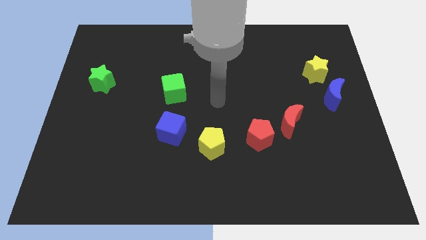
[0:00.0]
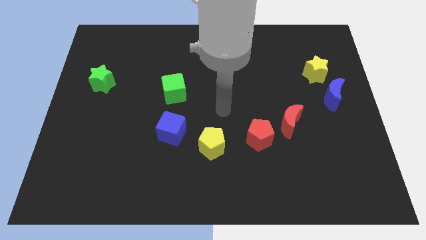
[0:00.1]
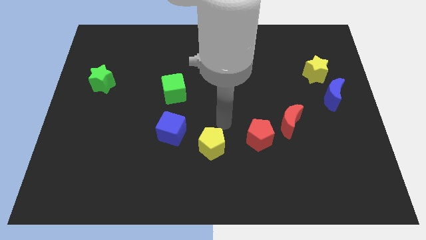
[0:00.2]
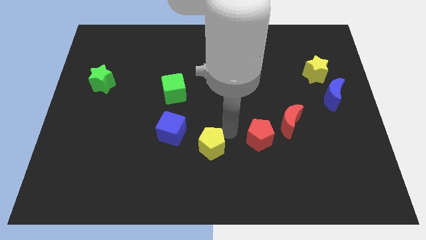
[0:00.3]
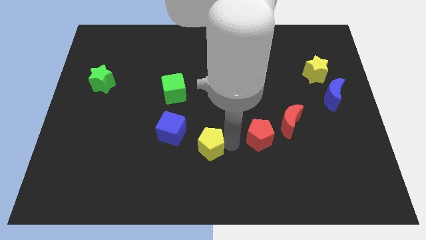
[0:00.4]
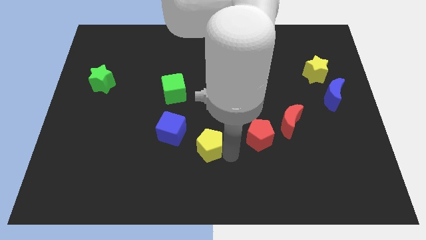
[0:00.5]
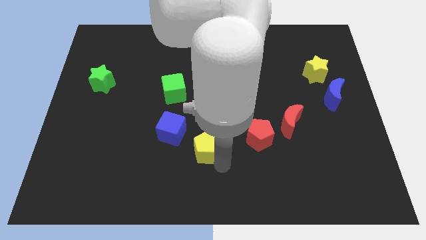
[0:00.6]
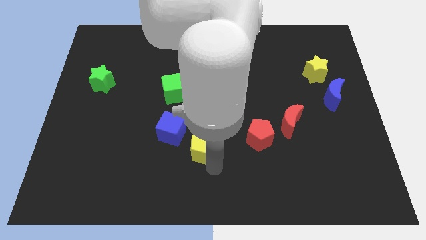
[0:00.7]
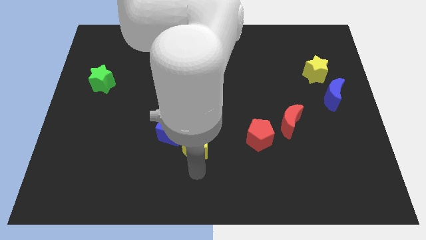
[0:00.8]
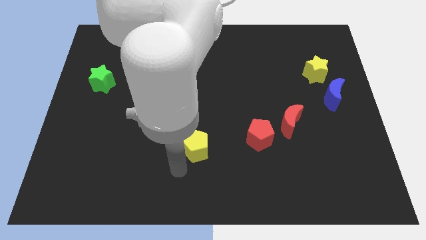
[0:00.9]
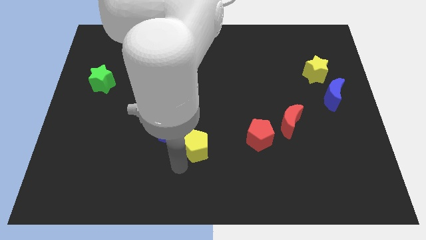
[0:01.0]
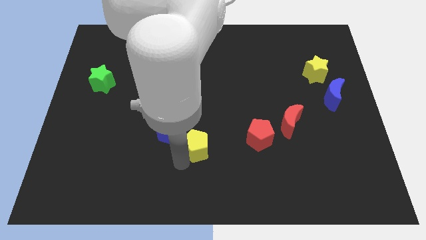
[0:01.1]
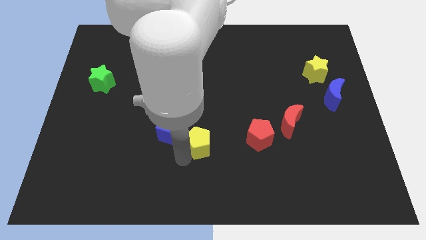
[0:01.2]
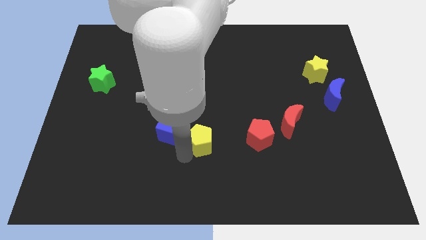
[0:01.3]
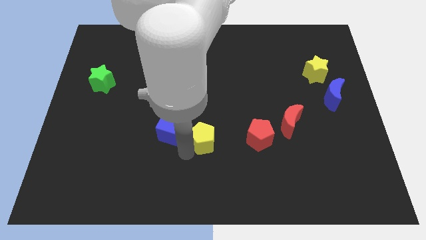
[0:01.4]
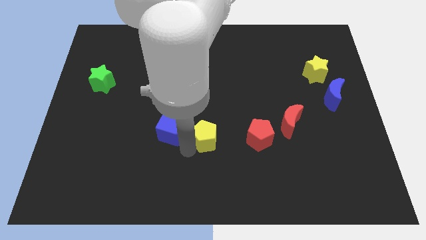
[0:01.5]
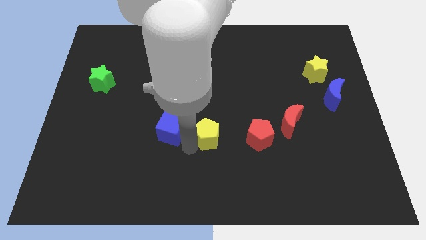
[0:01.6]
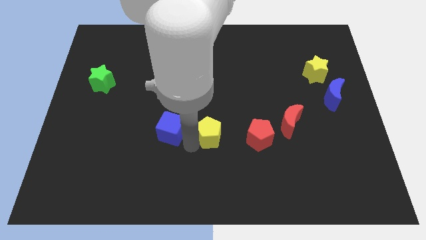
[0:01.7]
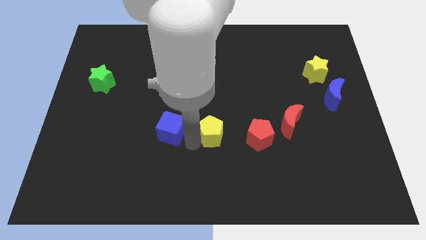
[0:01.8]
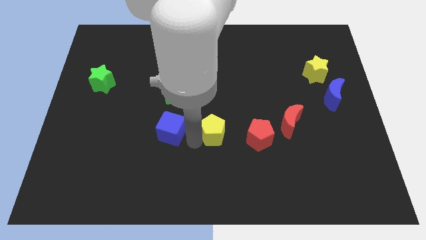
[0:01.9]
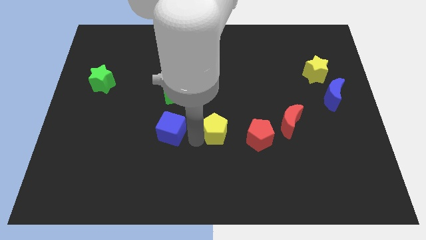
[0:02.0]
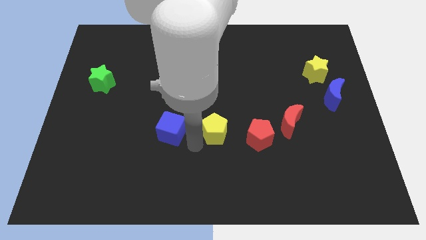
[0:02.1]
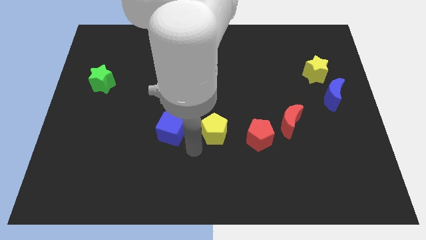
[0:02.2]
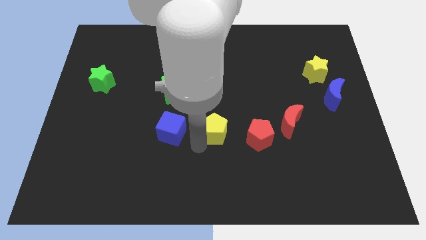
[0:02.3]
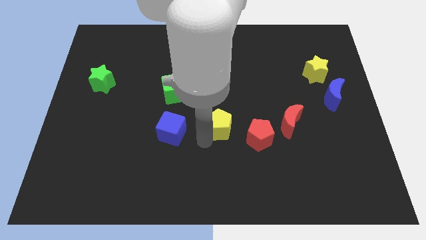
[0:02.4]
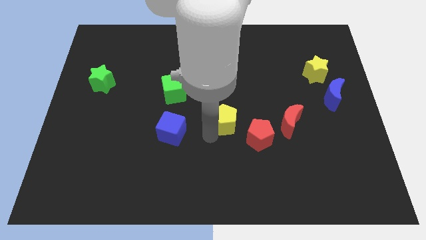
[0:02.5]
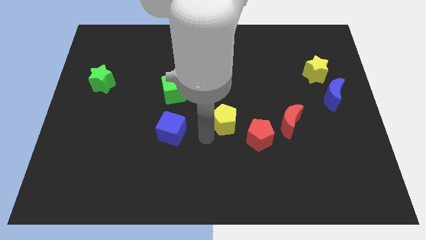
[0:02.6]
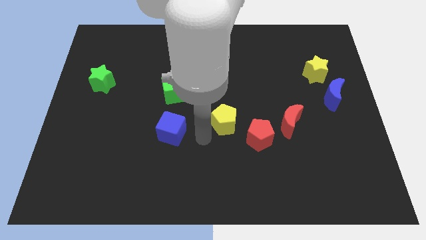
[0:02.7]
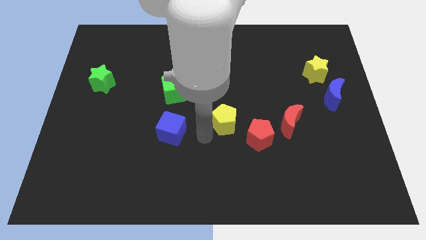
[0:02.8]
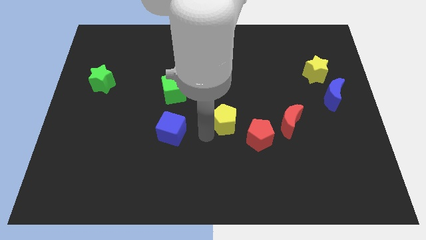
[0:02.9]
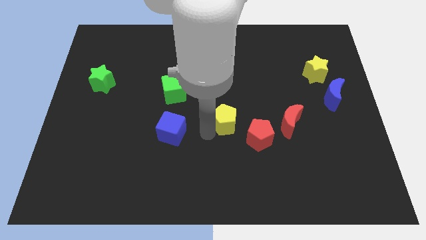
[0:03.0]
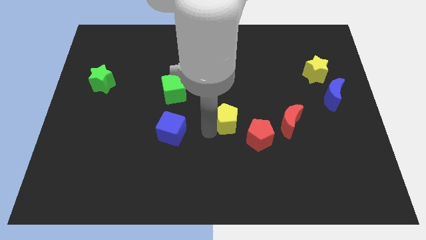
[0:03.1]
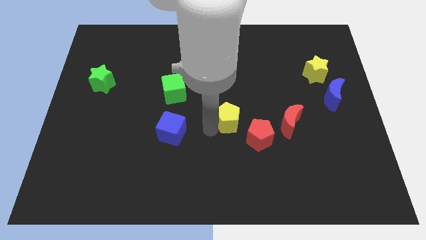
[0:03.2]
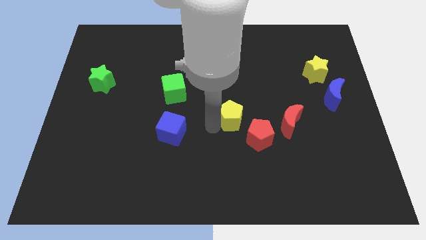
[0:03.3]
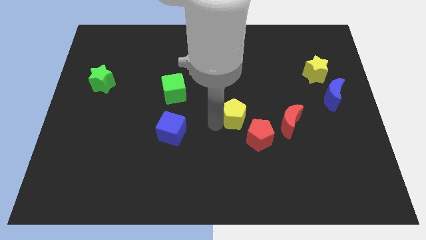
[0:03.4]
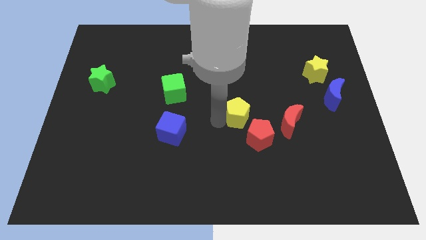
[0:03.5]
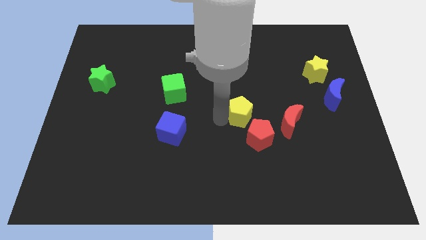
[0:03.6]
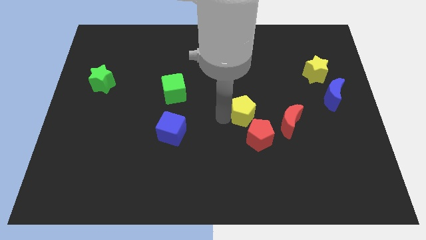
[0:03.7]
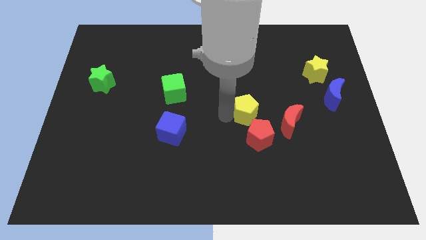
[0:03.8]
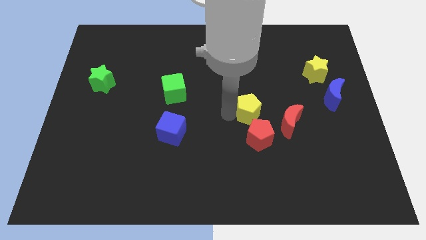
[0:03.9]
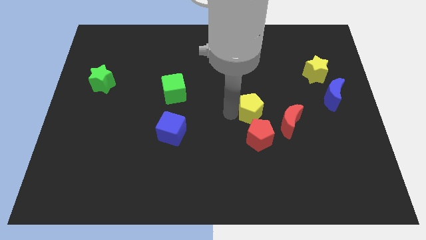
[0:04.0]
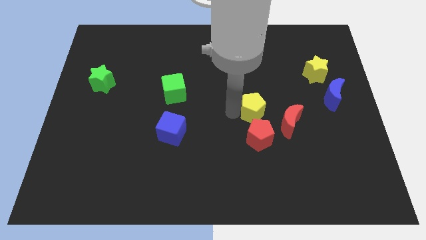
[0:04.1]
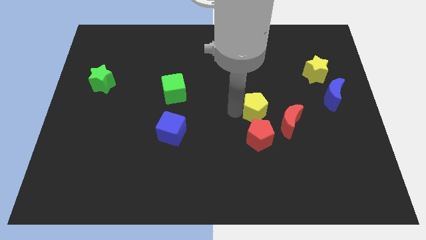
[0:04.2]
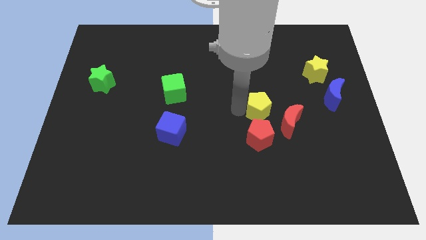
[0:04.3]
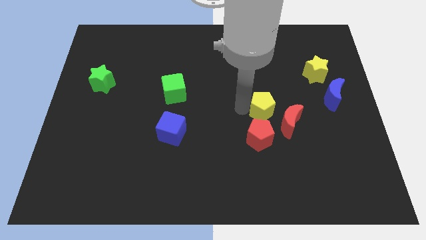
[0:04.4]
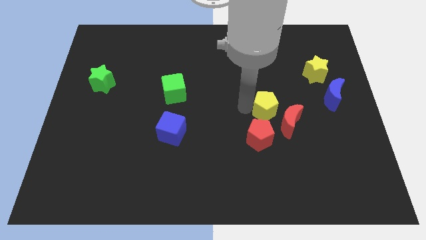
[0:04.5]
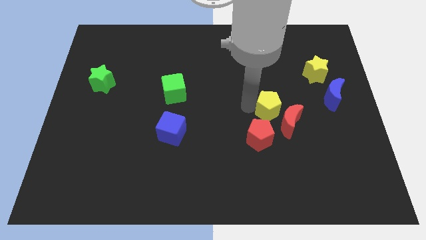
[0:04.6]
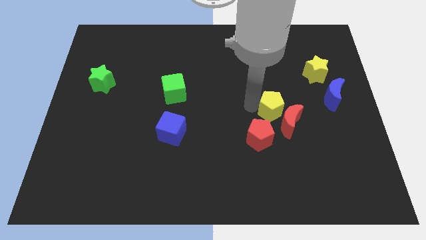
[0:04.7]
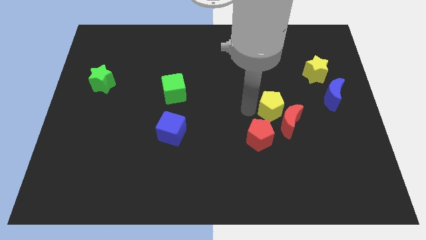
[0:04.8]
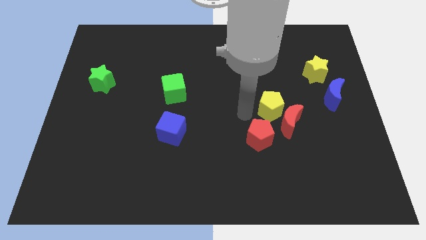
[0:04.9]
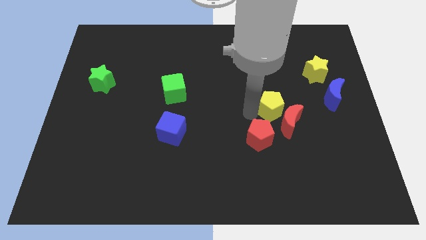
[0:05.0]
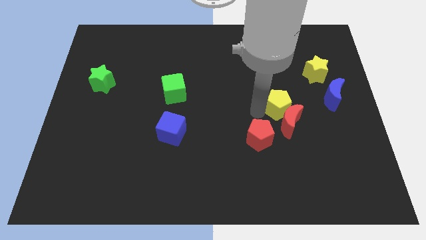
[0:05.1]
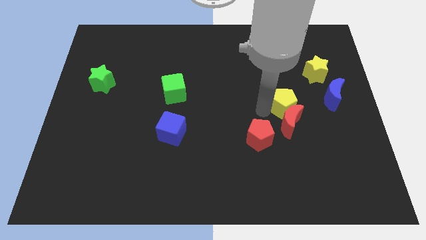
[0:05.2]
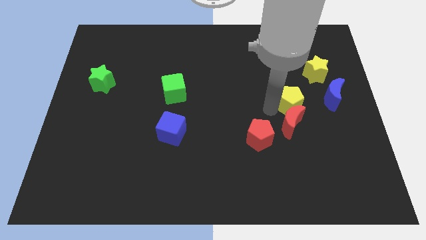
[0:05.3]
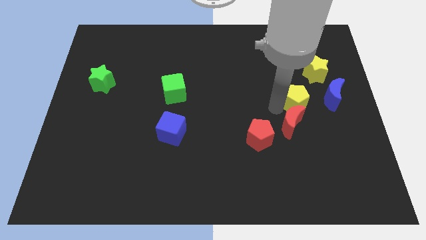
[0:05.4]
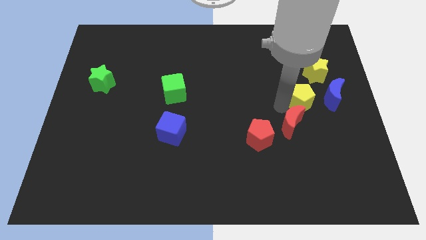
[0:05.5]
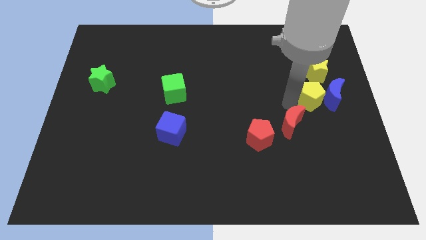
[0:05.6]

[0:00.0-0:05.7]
move the yellow pentagon close to the blue moon

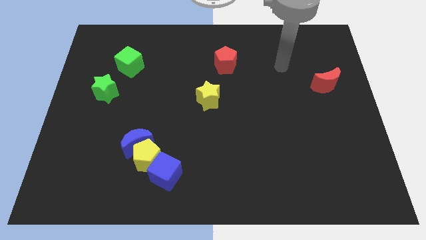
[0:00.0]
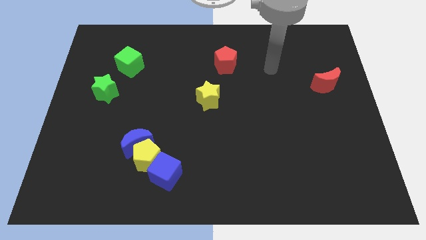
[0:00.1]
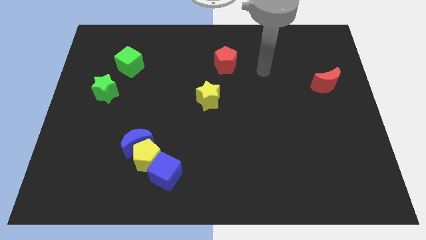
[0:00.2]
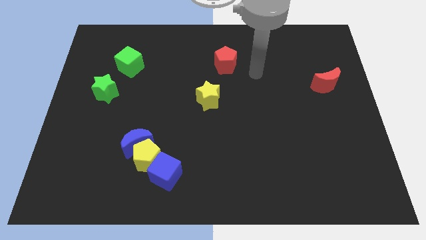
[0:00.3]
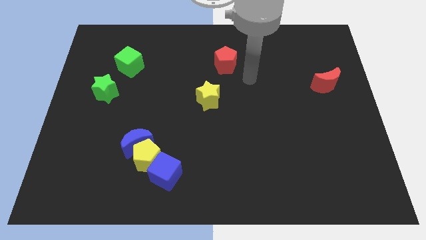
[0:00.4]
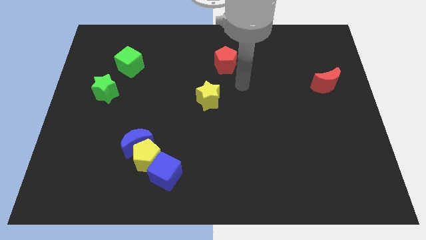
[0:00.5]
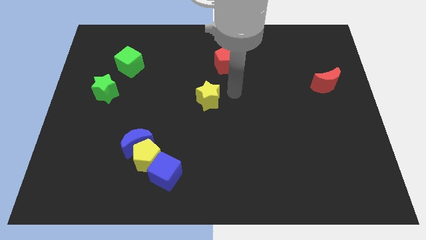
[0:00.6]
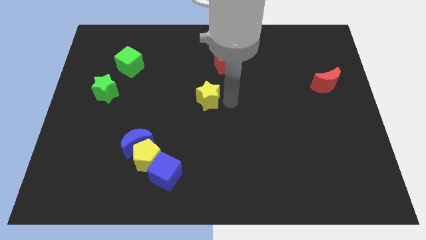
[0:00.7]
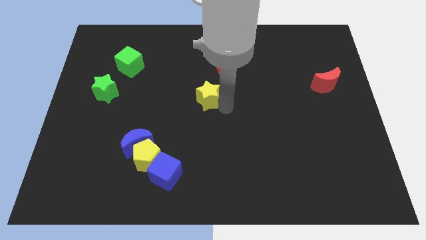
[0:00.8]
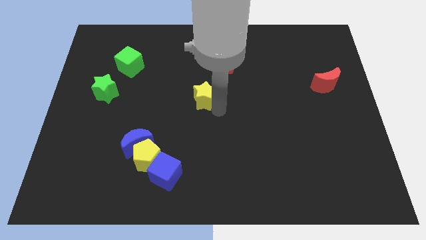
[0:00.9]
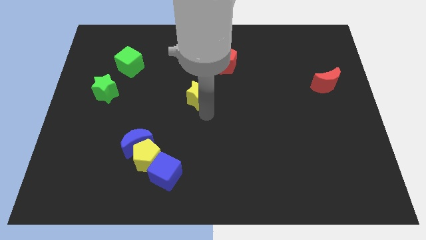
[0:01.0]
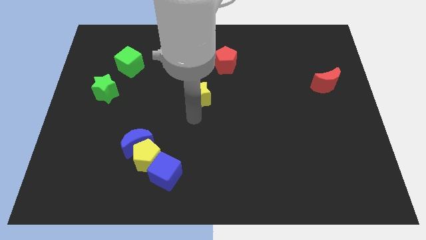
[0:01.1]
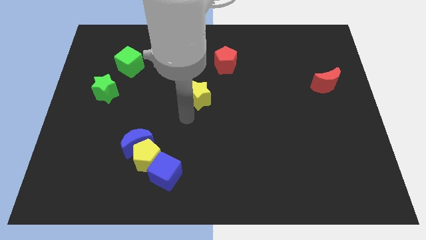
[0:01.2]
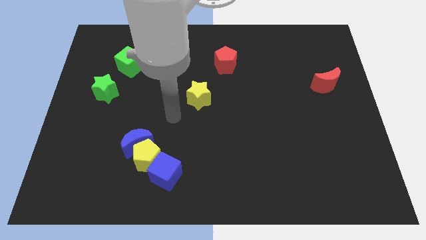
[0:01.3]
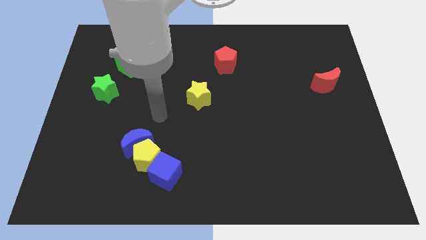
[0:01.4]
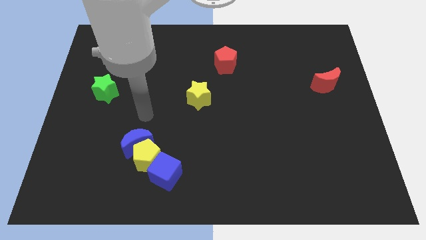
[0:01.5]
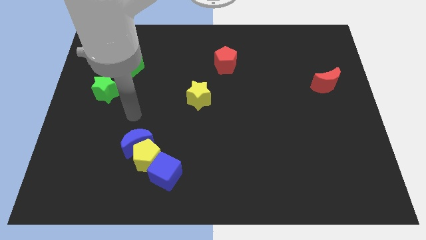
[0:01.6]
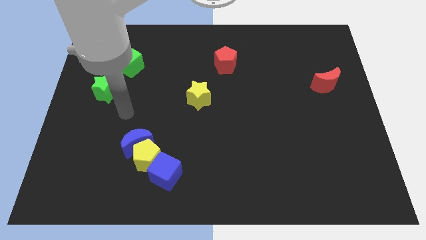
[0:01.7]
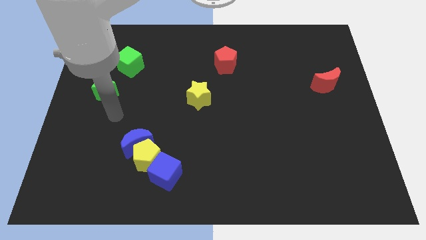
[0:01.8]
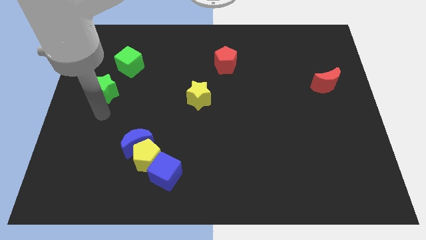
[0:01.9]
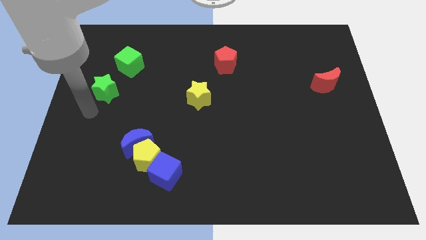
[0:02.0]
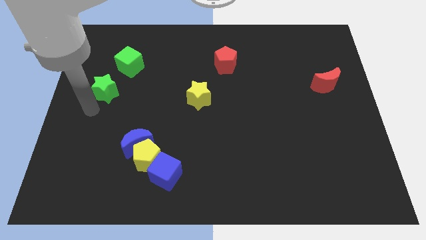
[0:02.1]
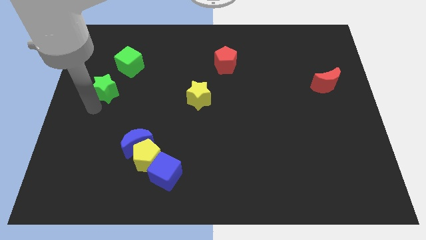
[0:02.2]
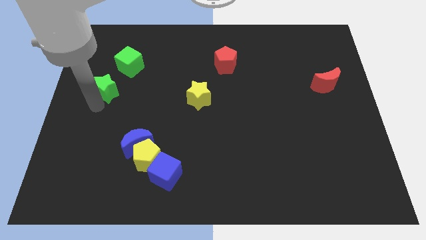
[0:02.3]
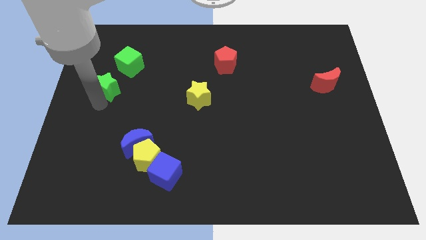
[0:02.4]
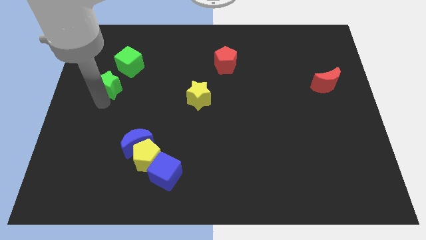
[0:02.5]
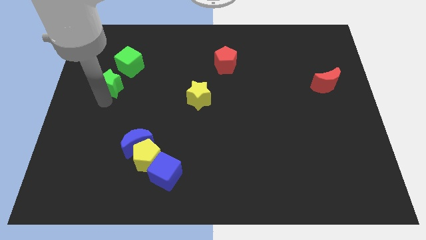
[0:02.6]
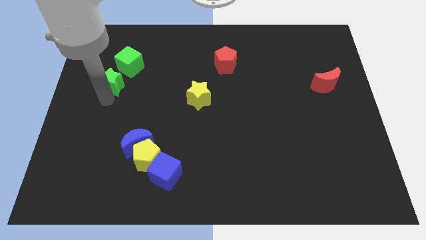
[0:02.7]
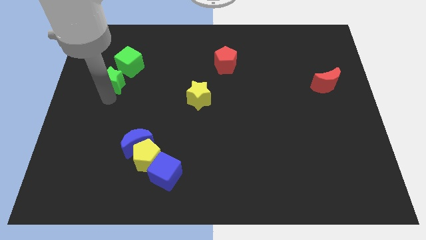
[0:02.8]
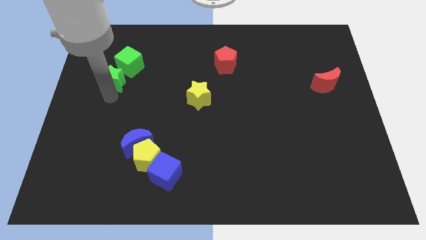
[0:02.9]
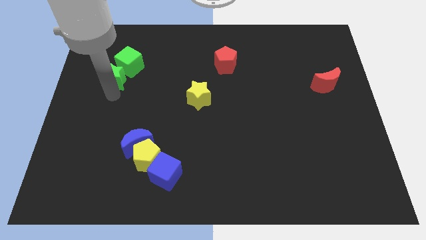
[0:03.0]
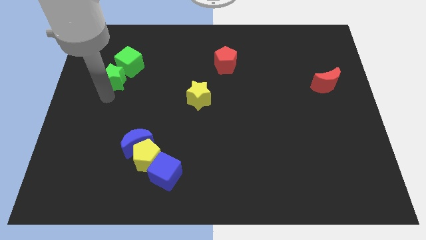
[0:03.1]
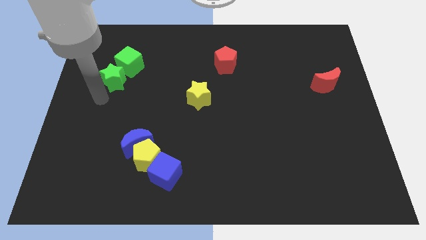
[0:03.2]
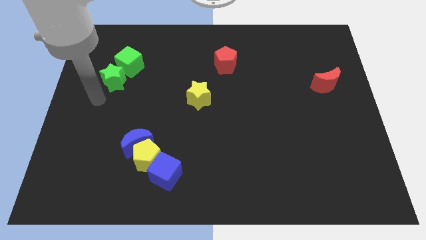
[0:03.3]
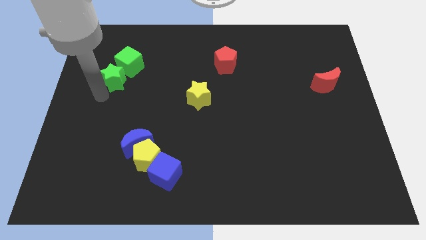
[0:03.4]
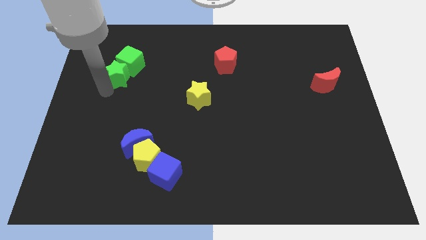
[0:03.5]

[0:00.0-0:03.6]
push the green star close to the green cube
